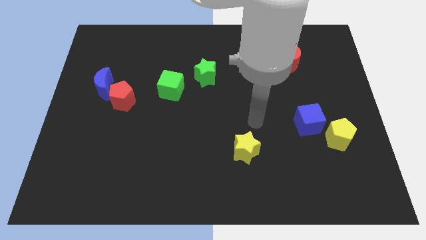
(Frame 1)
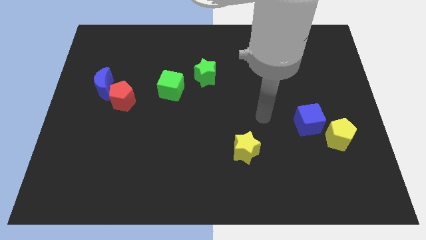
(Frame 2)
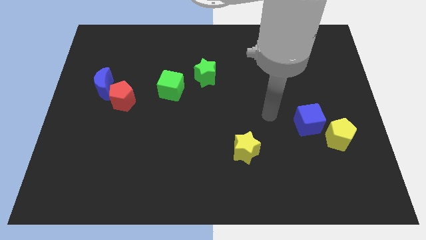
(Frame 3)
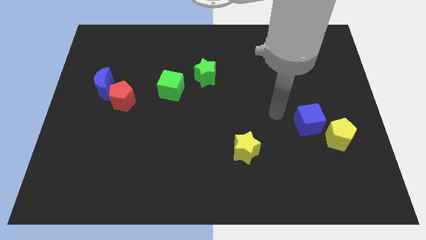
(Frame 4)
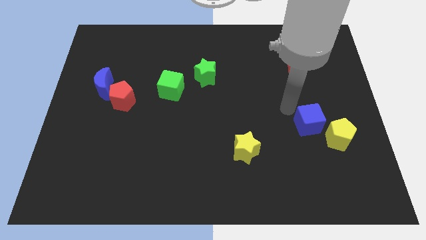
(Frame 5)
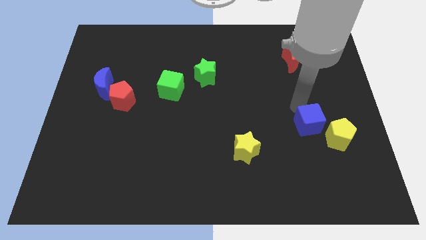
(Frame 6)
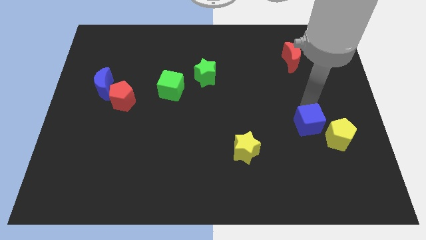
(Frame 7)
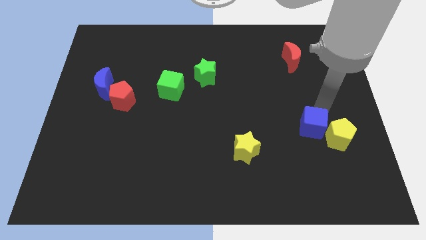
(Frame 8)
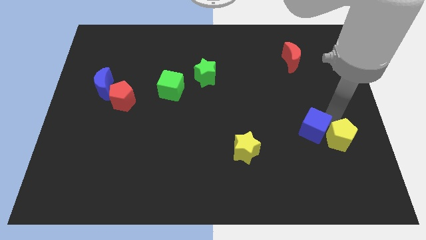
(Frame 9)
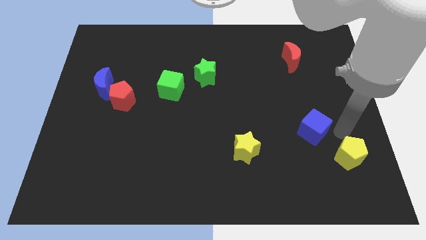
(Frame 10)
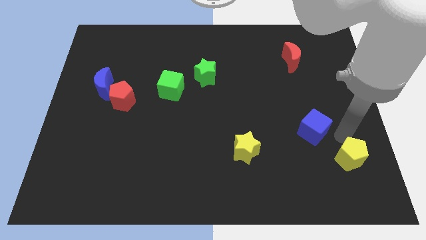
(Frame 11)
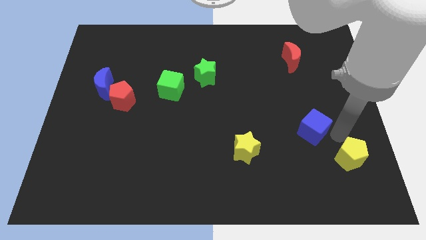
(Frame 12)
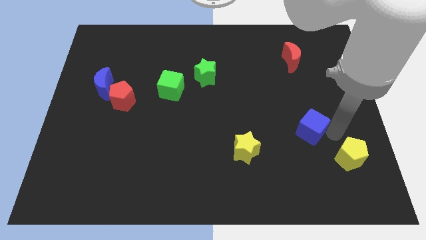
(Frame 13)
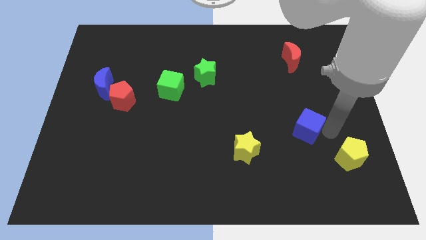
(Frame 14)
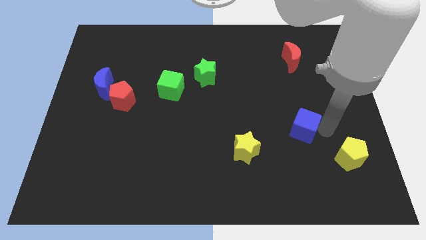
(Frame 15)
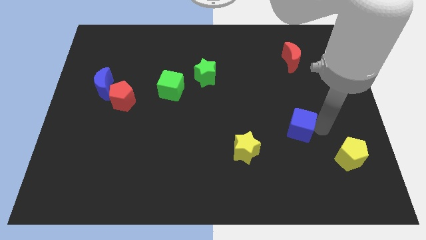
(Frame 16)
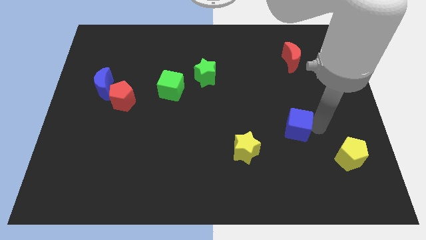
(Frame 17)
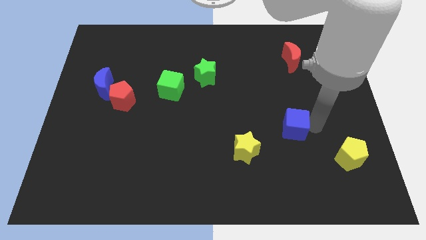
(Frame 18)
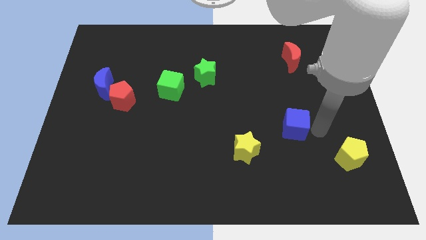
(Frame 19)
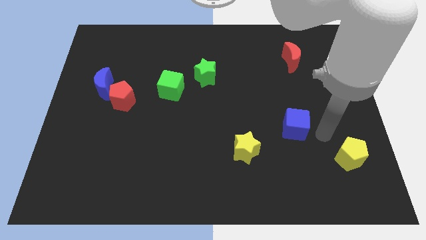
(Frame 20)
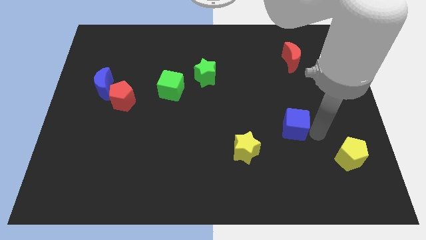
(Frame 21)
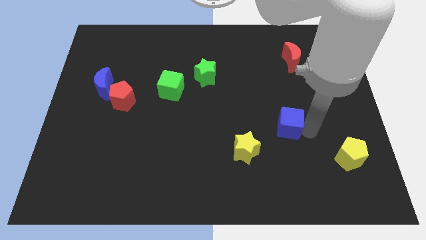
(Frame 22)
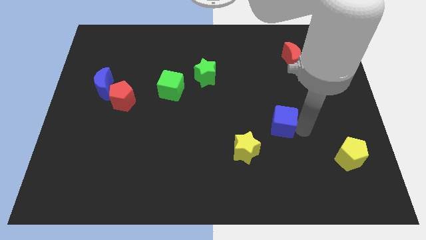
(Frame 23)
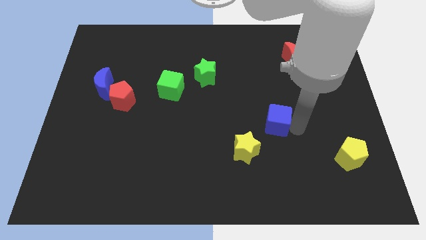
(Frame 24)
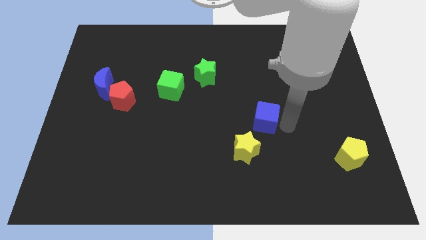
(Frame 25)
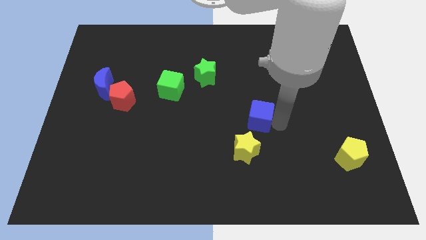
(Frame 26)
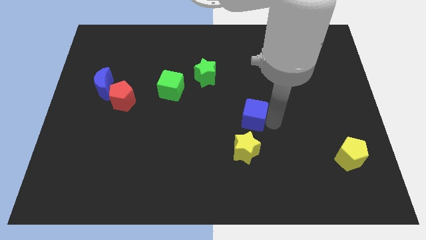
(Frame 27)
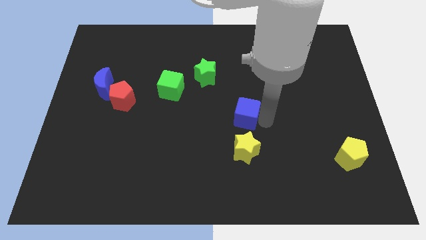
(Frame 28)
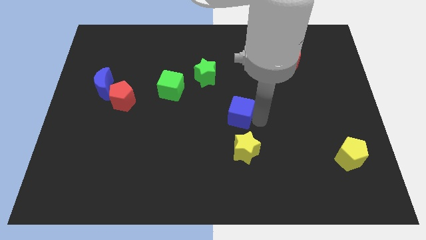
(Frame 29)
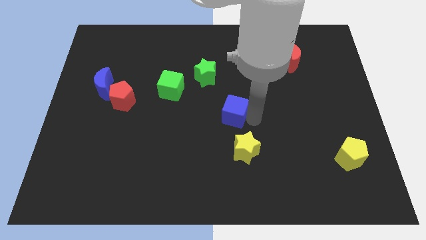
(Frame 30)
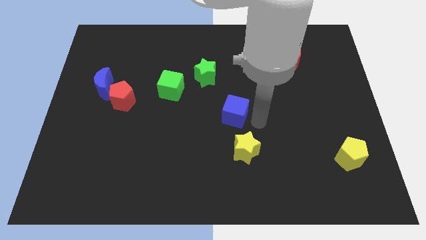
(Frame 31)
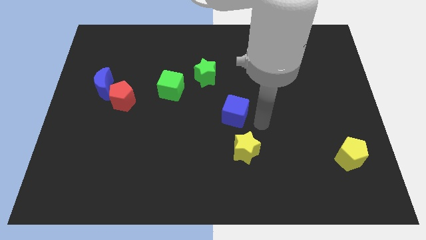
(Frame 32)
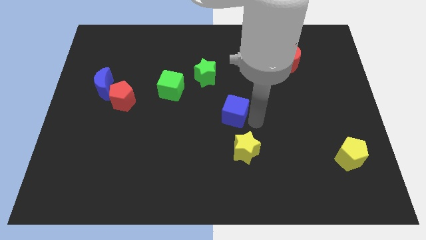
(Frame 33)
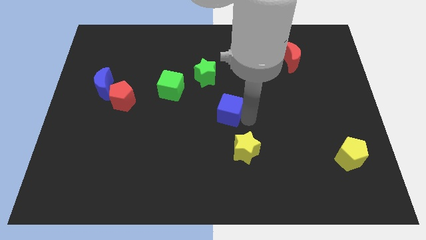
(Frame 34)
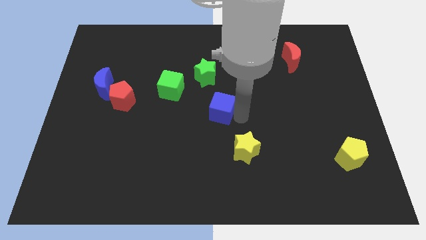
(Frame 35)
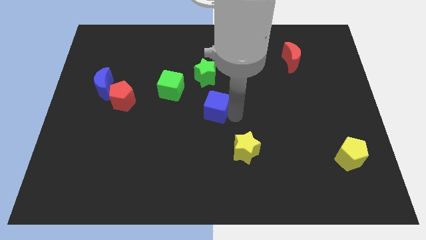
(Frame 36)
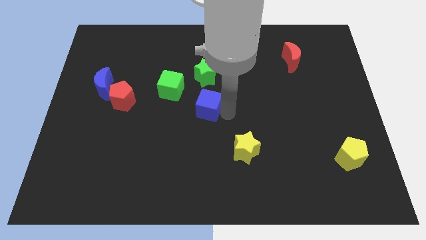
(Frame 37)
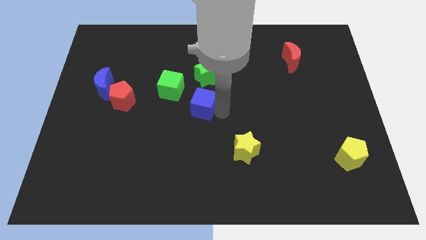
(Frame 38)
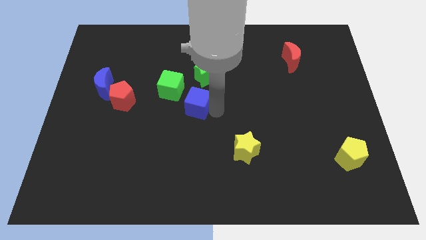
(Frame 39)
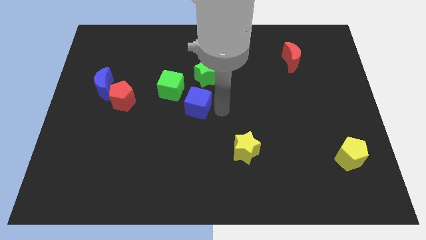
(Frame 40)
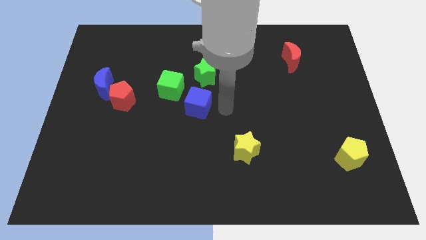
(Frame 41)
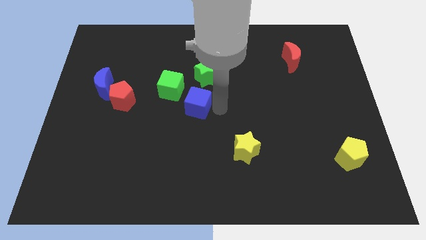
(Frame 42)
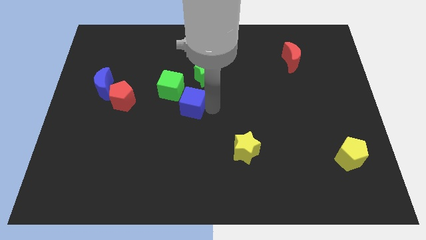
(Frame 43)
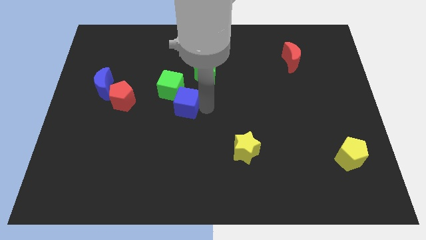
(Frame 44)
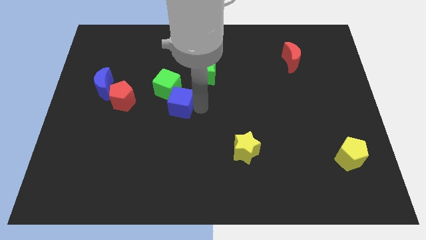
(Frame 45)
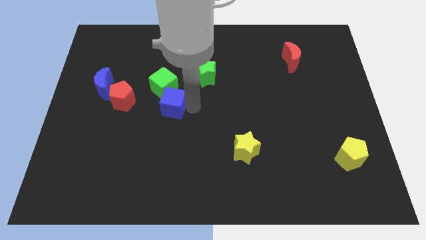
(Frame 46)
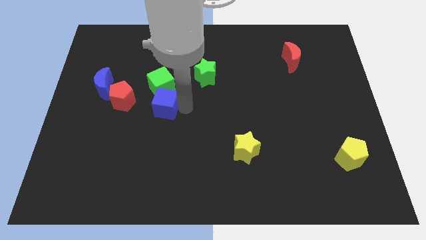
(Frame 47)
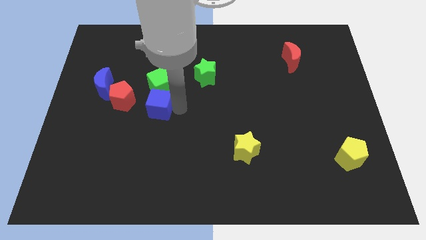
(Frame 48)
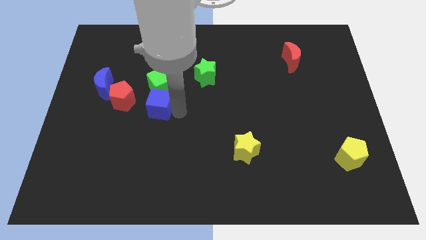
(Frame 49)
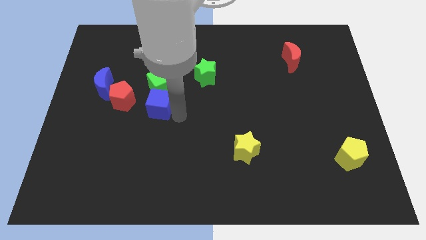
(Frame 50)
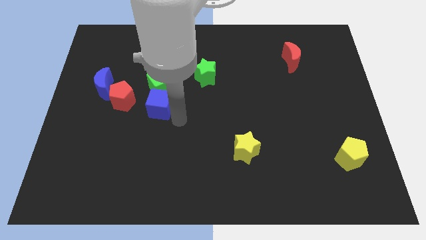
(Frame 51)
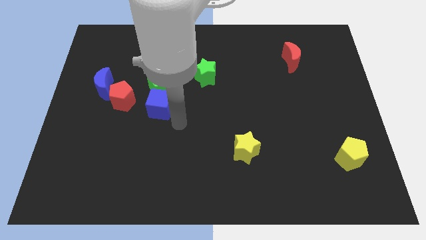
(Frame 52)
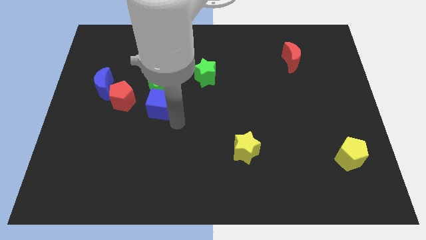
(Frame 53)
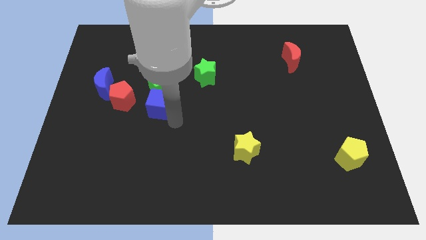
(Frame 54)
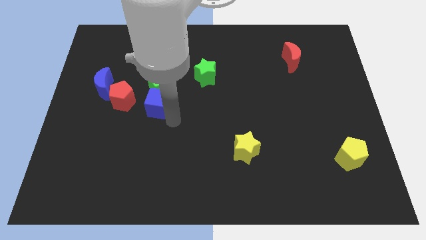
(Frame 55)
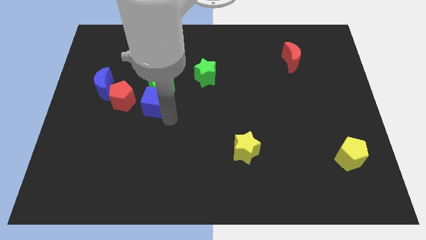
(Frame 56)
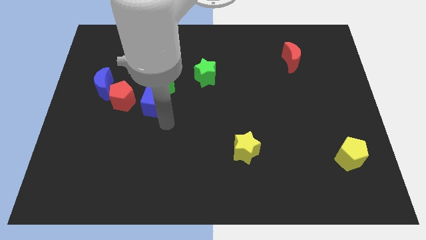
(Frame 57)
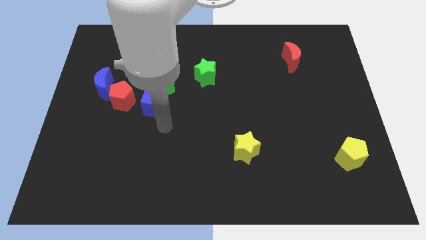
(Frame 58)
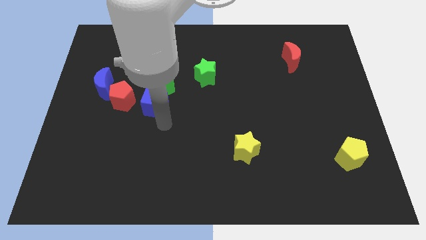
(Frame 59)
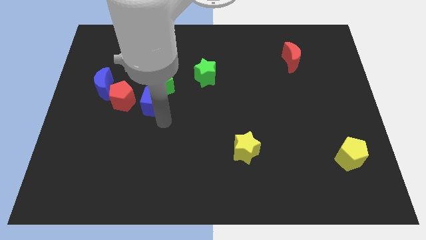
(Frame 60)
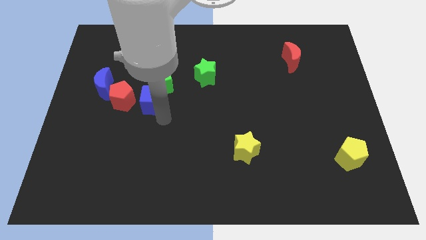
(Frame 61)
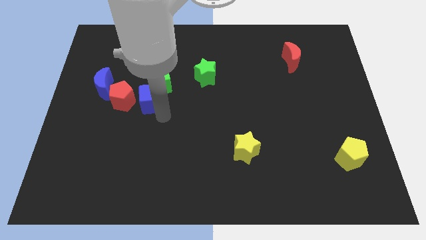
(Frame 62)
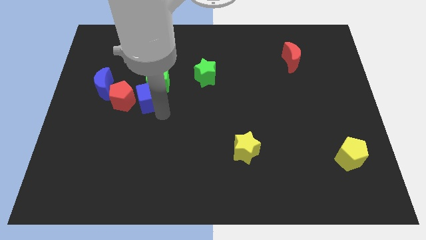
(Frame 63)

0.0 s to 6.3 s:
put the blue cube to the top right of the red pentagon

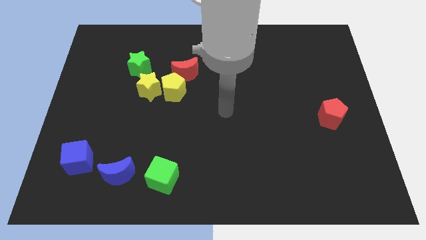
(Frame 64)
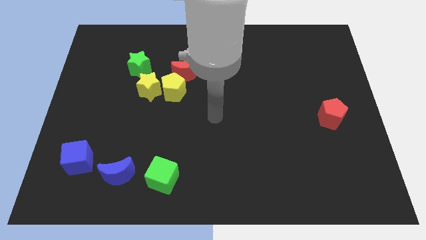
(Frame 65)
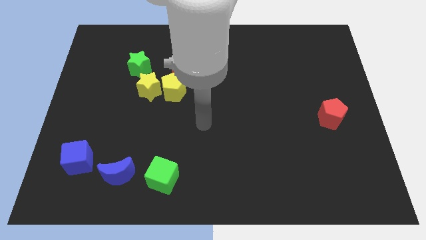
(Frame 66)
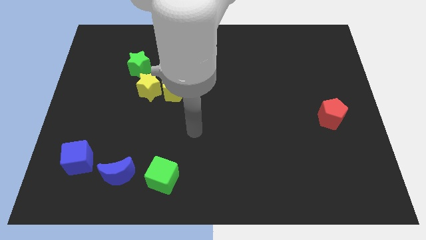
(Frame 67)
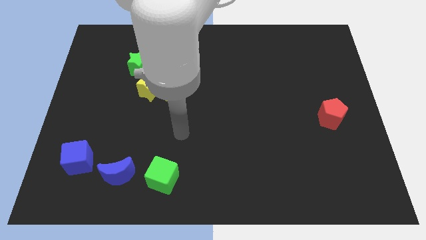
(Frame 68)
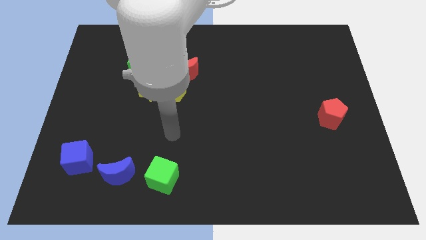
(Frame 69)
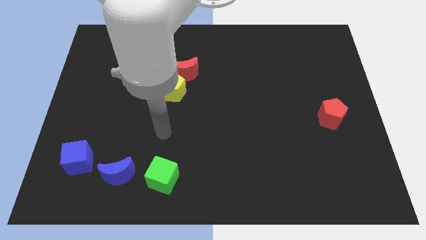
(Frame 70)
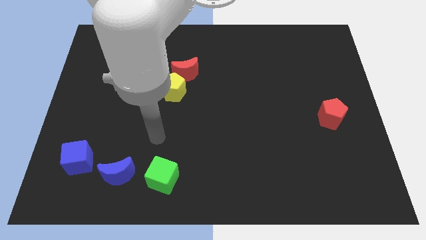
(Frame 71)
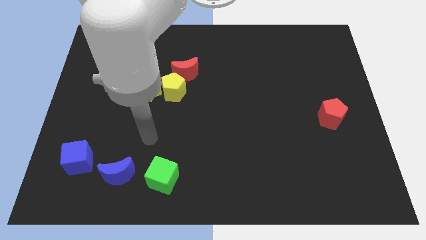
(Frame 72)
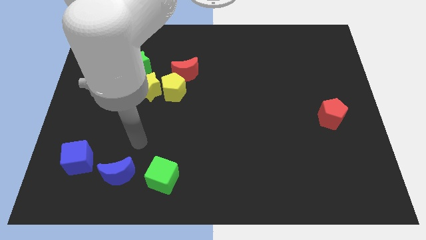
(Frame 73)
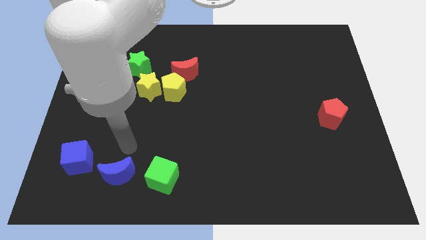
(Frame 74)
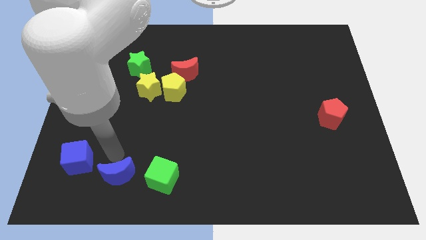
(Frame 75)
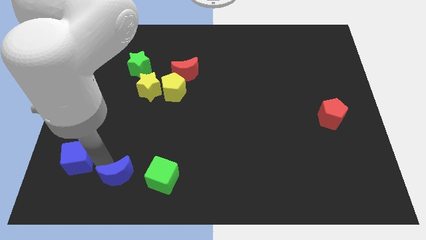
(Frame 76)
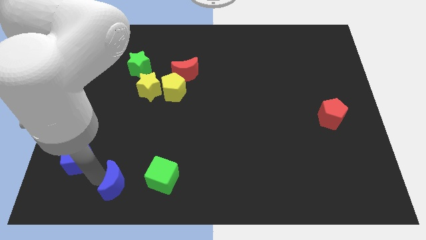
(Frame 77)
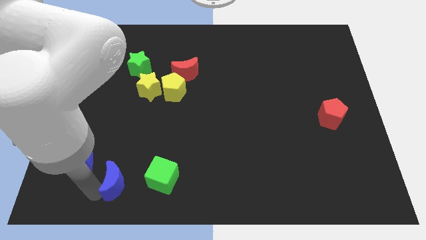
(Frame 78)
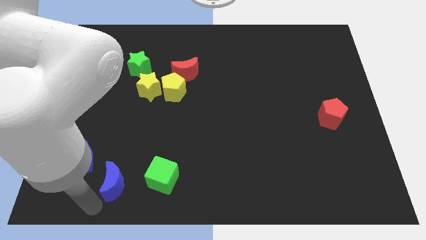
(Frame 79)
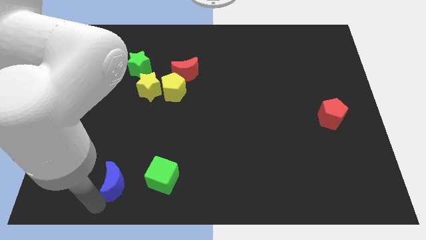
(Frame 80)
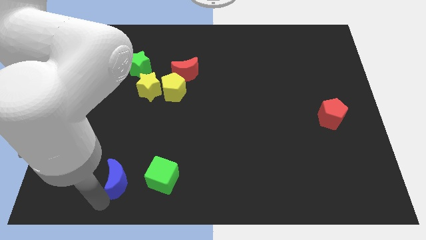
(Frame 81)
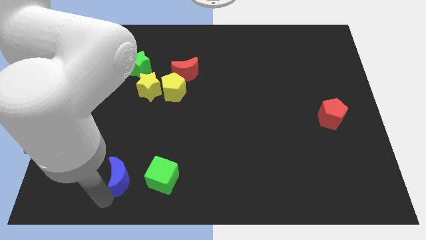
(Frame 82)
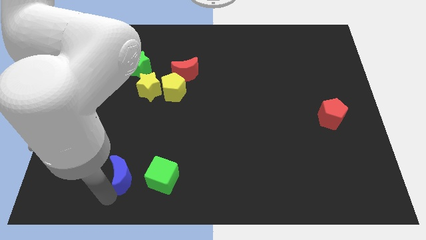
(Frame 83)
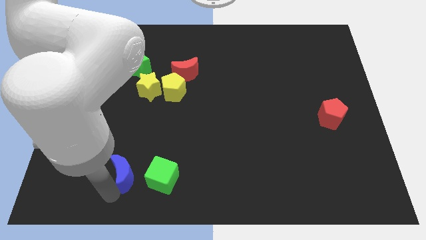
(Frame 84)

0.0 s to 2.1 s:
put the blue moon to the top left of the green cube
